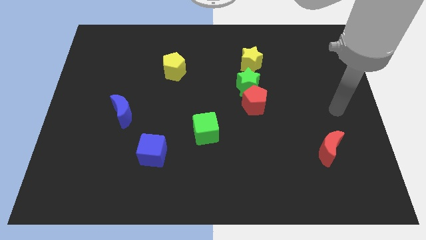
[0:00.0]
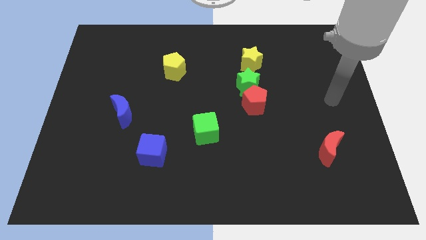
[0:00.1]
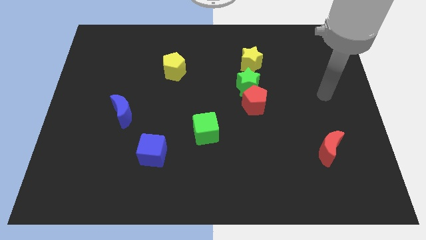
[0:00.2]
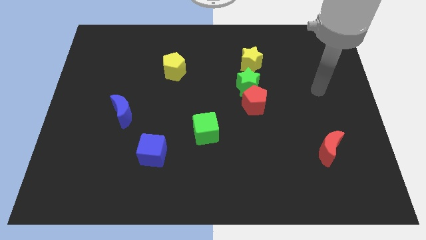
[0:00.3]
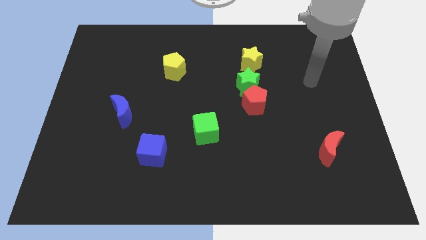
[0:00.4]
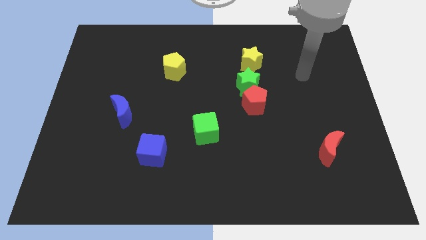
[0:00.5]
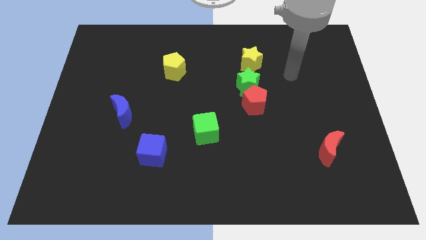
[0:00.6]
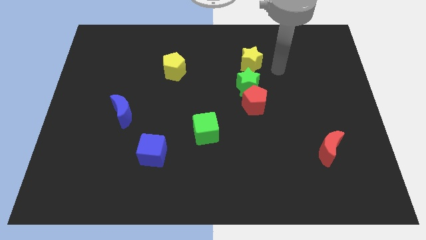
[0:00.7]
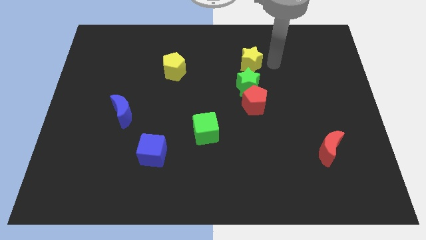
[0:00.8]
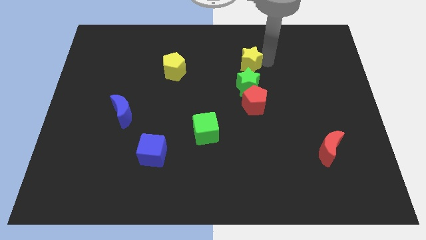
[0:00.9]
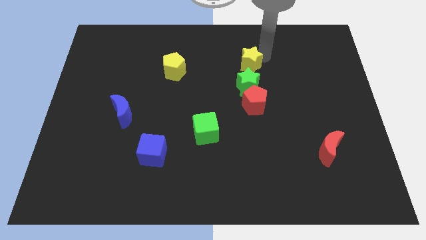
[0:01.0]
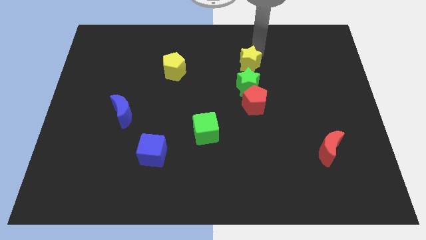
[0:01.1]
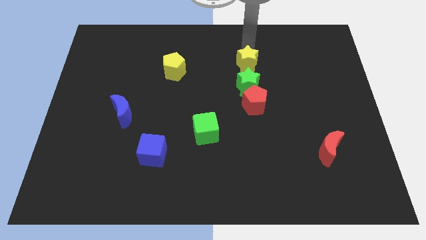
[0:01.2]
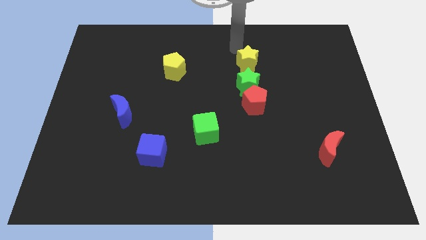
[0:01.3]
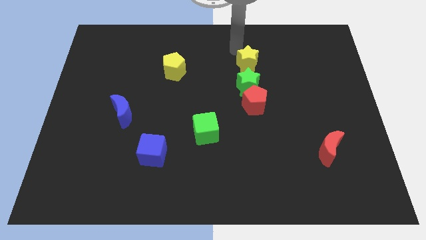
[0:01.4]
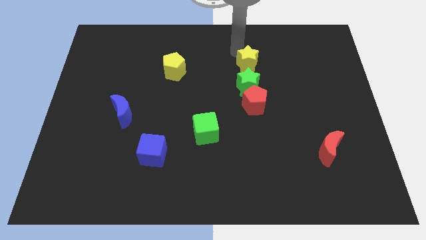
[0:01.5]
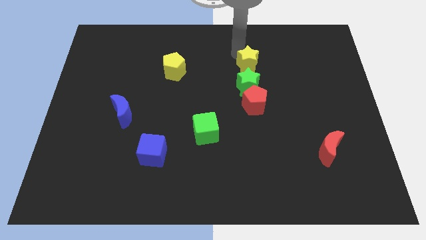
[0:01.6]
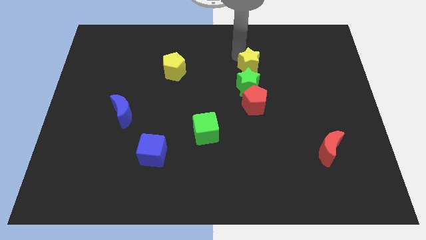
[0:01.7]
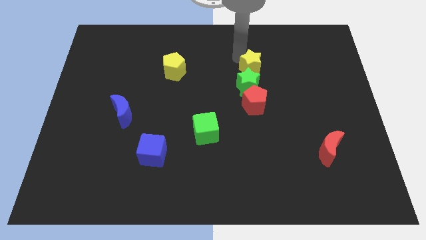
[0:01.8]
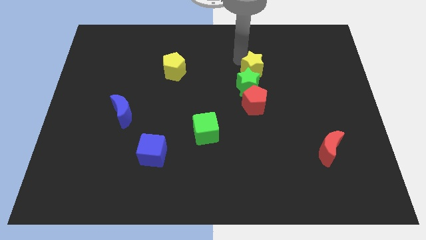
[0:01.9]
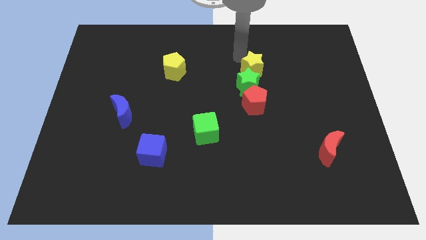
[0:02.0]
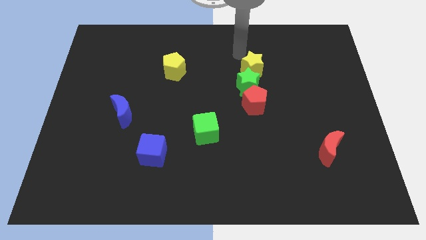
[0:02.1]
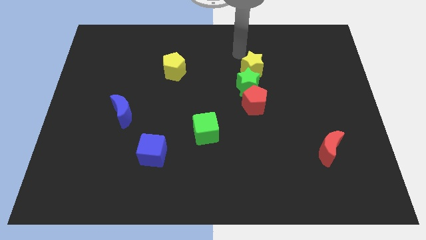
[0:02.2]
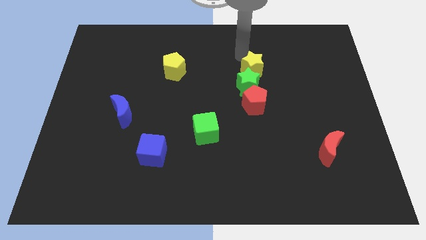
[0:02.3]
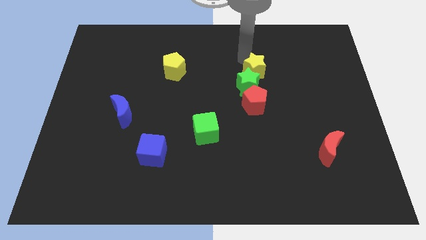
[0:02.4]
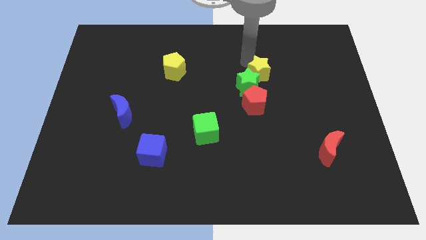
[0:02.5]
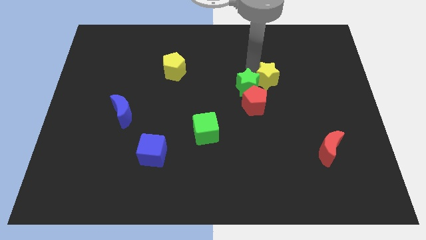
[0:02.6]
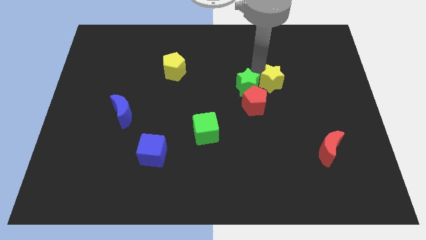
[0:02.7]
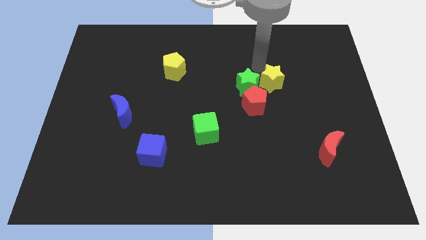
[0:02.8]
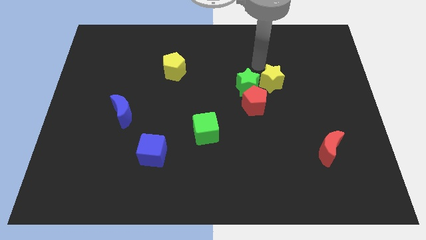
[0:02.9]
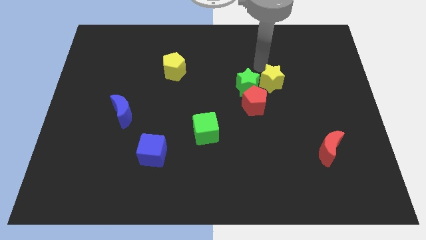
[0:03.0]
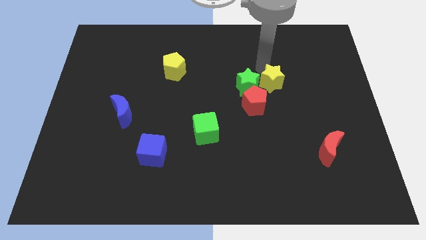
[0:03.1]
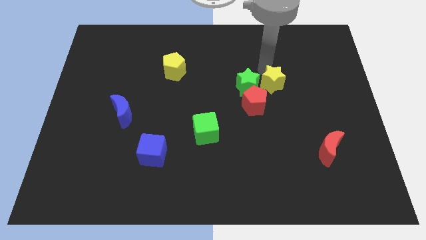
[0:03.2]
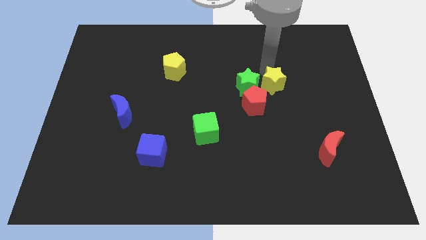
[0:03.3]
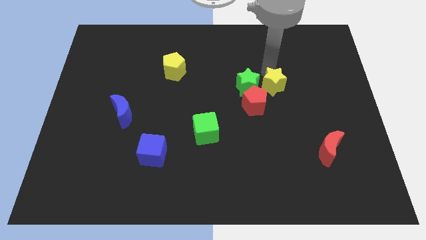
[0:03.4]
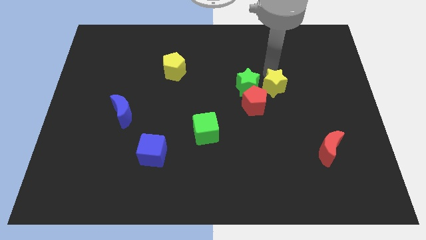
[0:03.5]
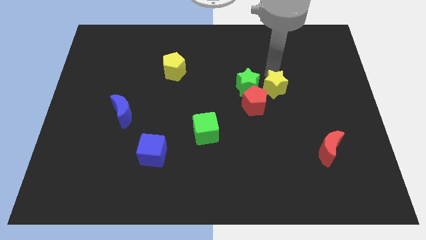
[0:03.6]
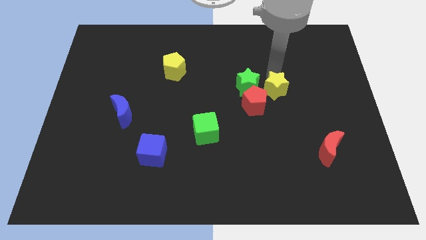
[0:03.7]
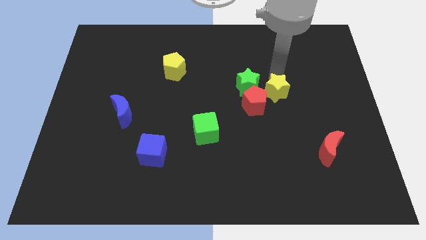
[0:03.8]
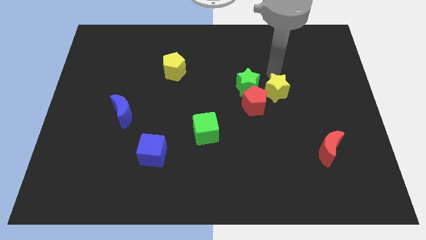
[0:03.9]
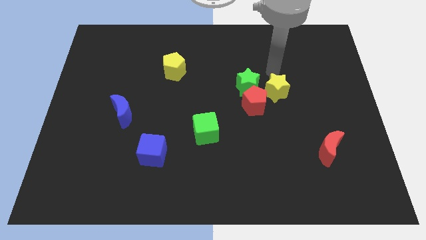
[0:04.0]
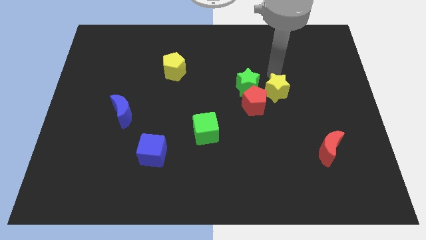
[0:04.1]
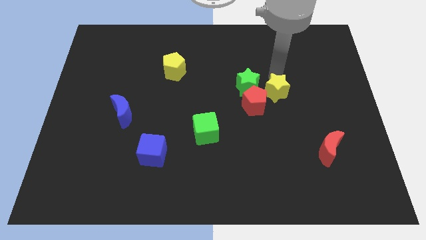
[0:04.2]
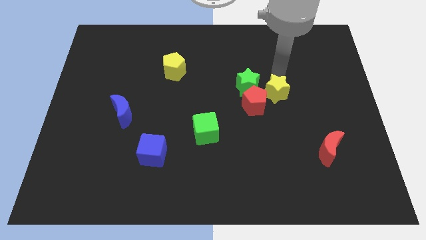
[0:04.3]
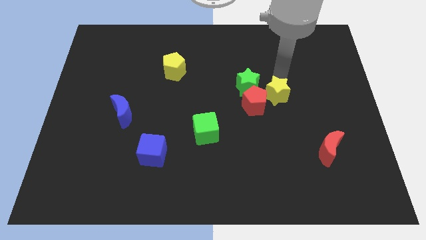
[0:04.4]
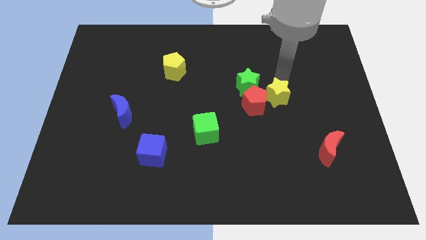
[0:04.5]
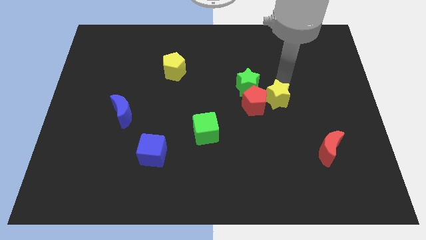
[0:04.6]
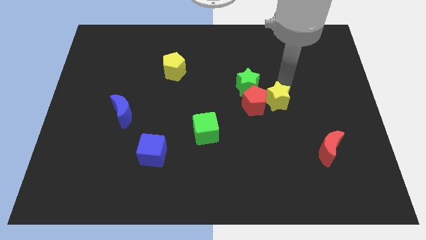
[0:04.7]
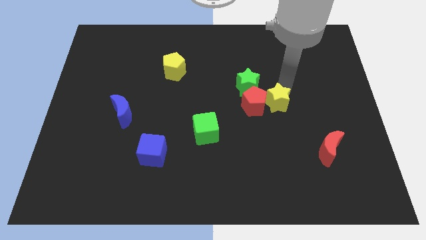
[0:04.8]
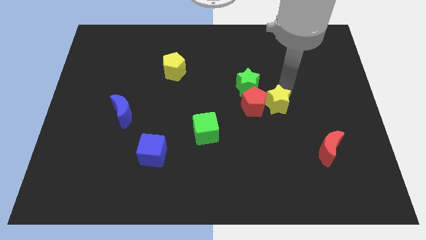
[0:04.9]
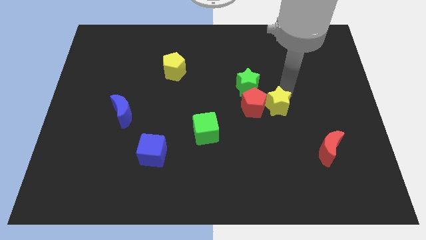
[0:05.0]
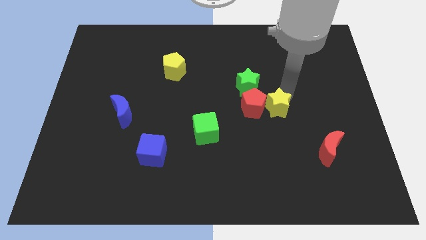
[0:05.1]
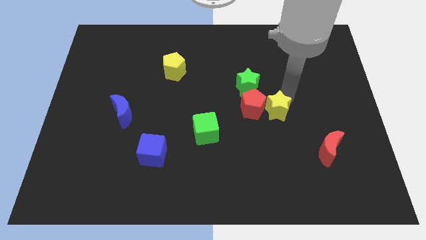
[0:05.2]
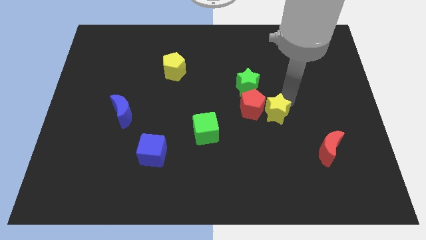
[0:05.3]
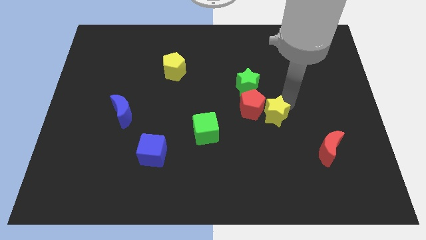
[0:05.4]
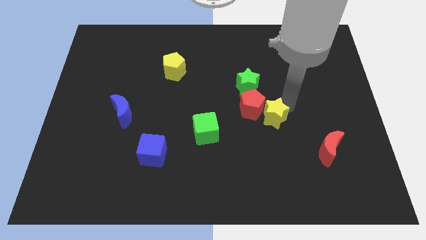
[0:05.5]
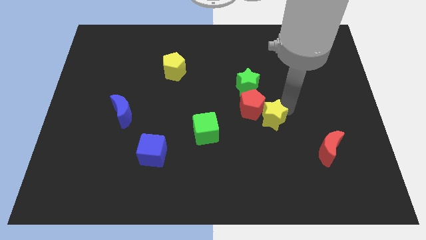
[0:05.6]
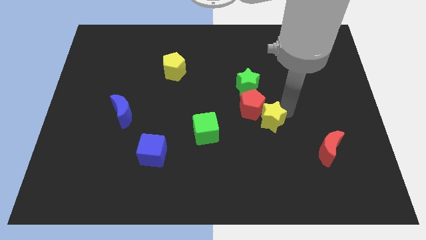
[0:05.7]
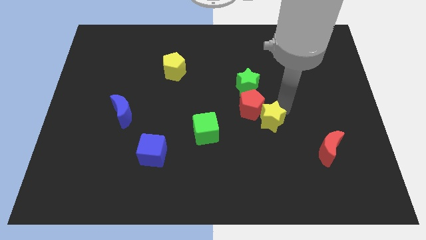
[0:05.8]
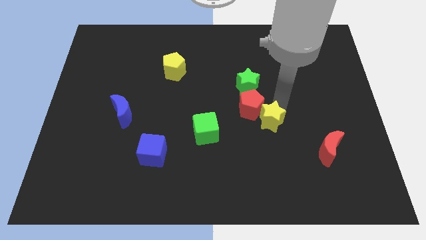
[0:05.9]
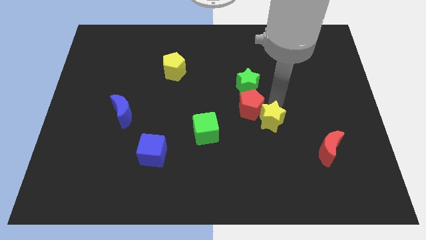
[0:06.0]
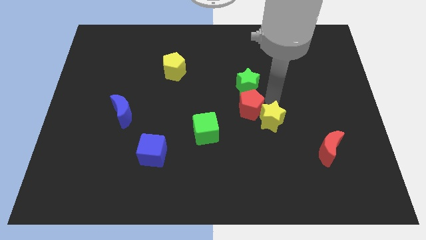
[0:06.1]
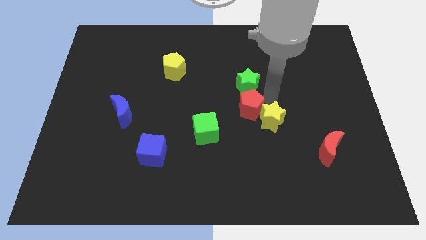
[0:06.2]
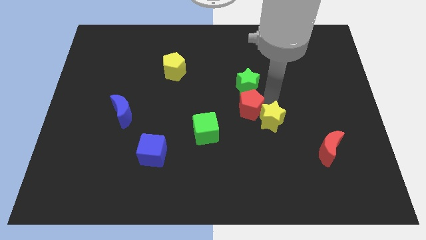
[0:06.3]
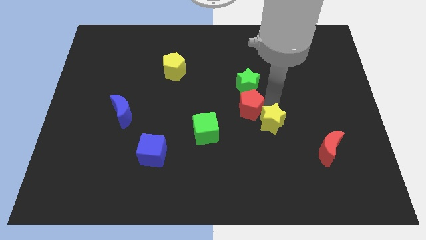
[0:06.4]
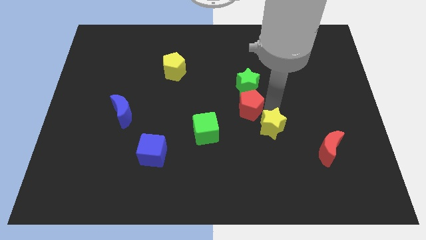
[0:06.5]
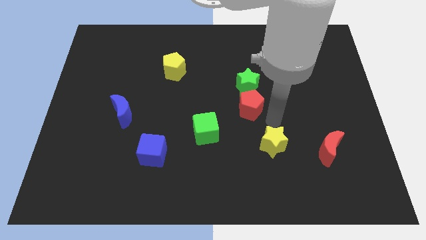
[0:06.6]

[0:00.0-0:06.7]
push the yellow star down

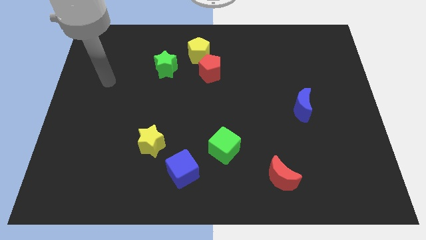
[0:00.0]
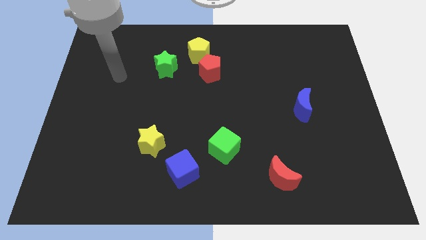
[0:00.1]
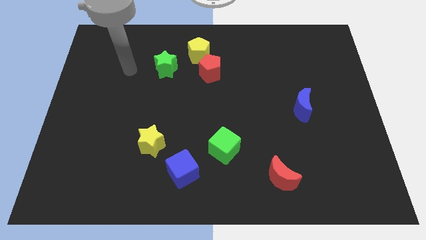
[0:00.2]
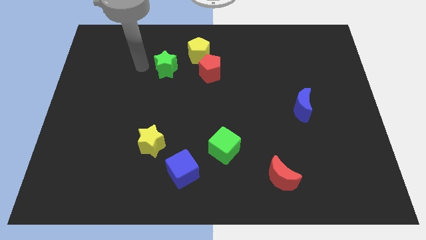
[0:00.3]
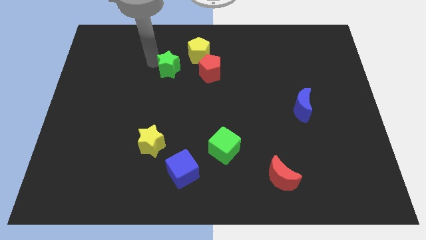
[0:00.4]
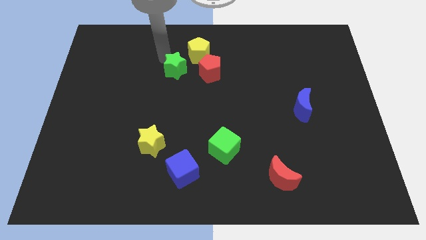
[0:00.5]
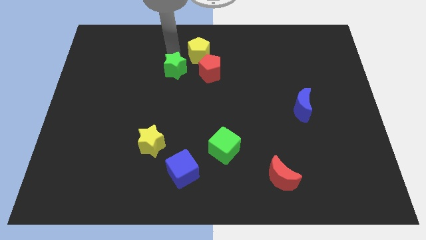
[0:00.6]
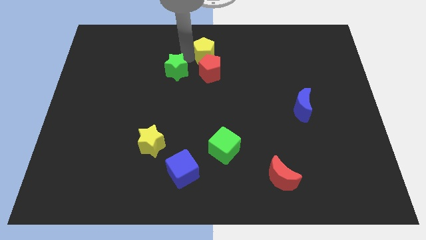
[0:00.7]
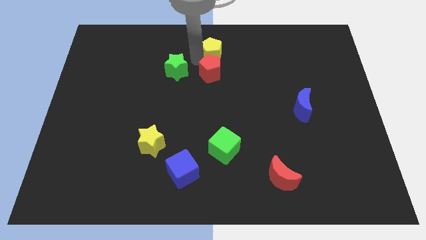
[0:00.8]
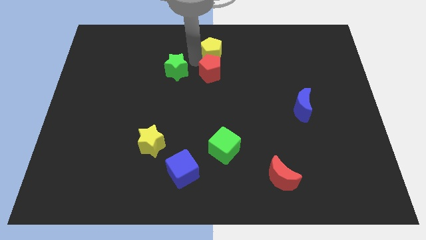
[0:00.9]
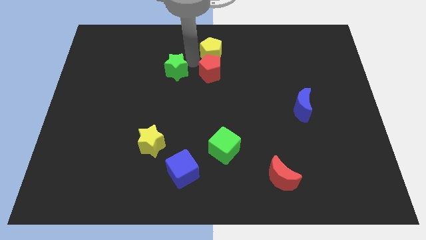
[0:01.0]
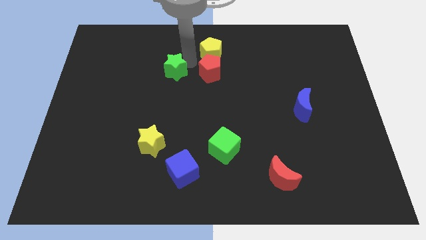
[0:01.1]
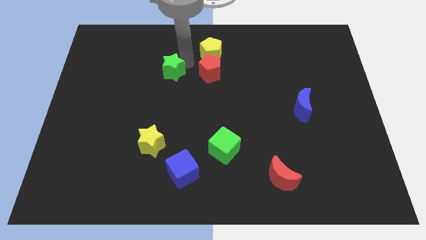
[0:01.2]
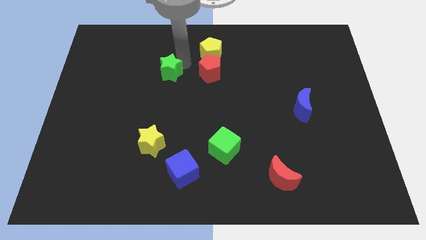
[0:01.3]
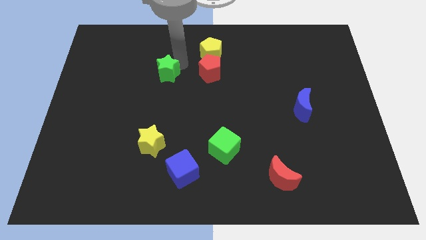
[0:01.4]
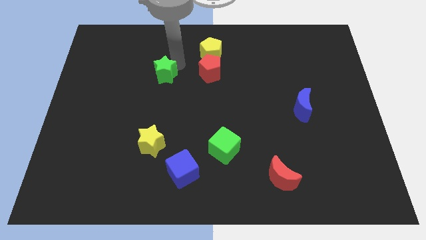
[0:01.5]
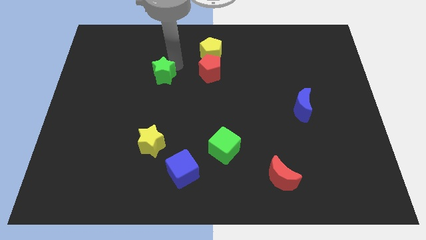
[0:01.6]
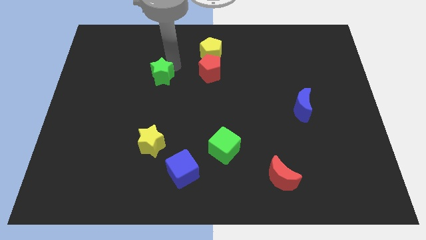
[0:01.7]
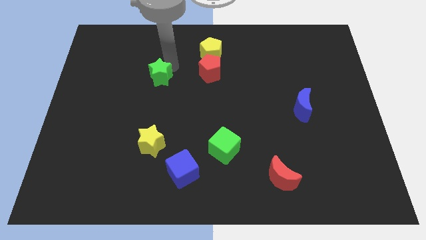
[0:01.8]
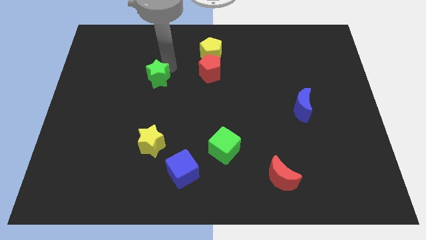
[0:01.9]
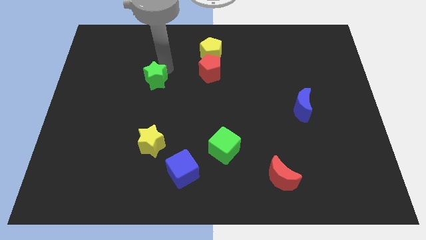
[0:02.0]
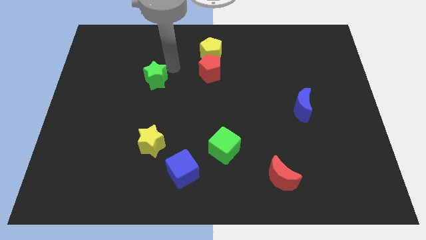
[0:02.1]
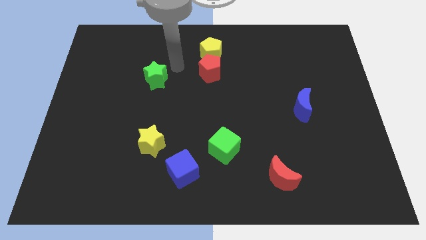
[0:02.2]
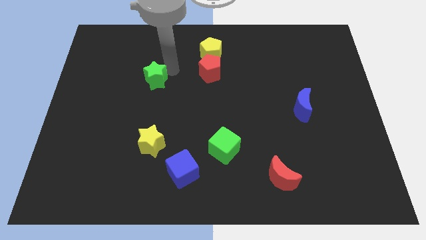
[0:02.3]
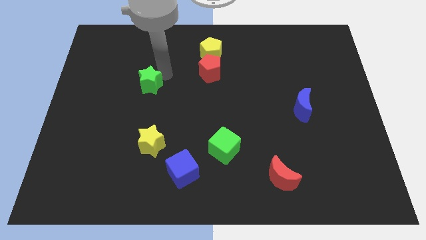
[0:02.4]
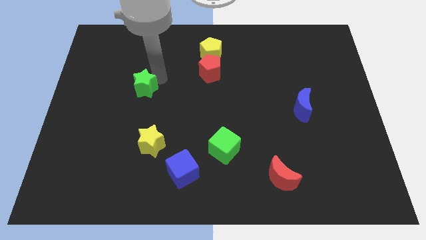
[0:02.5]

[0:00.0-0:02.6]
move the green star a bit down and then left
